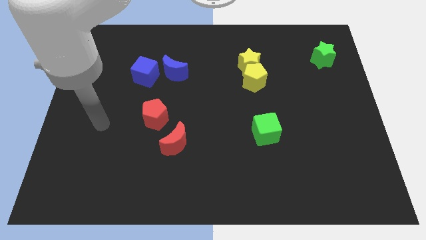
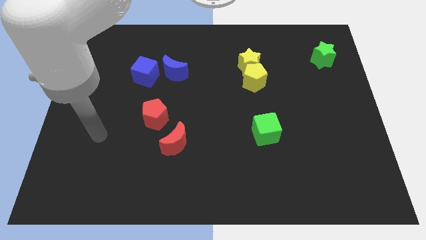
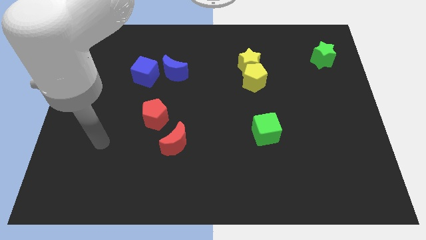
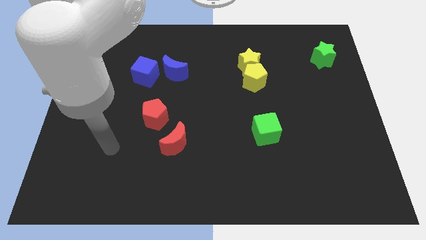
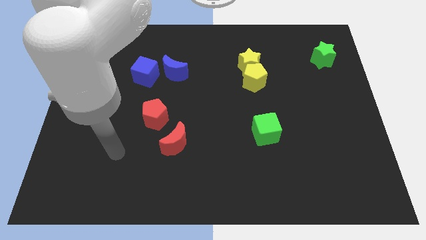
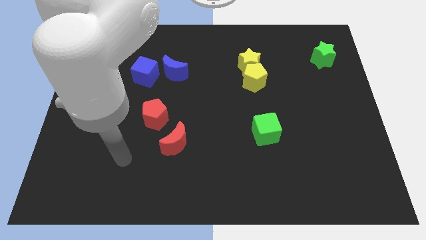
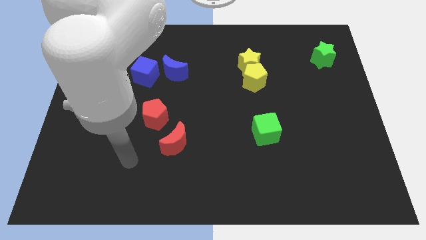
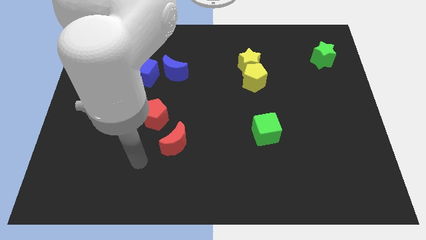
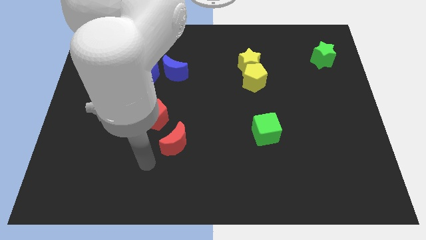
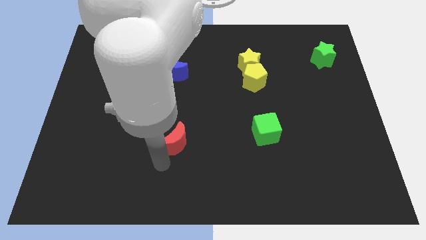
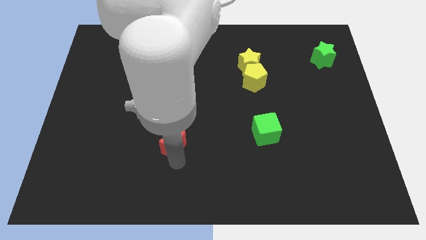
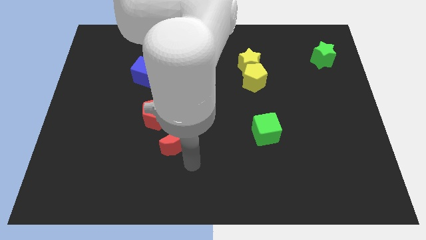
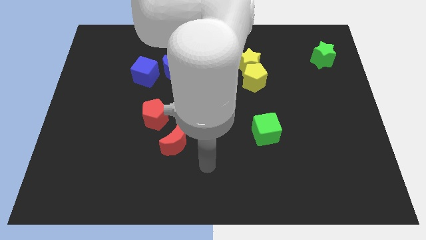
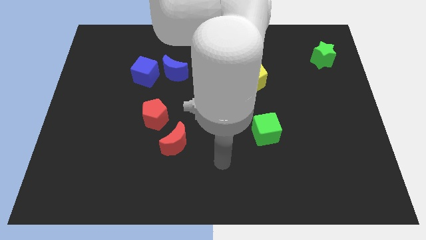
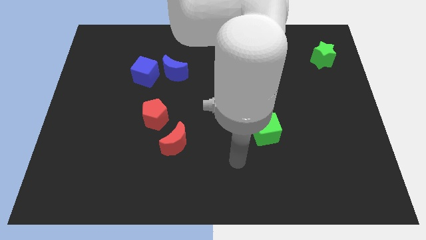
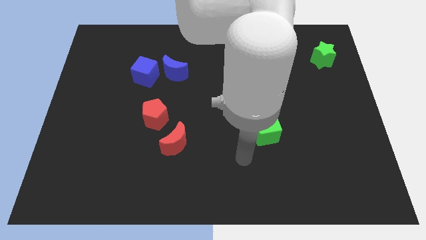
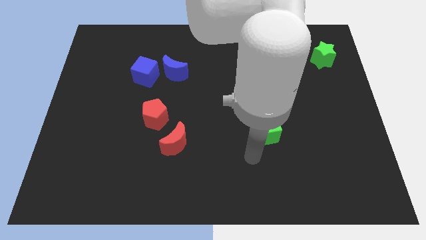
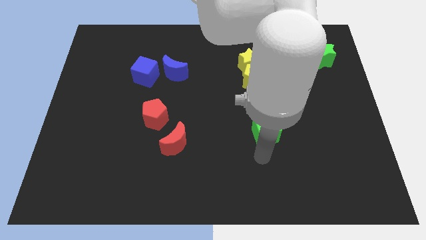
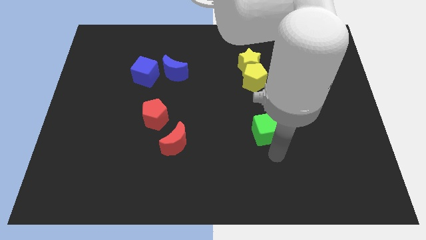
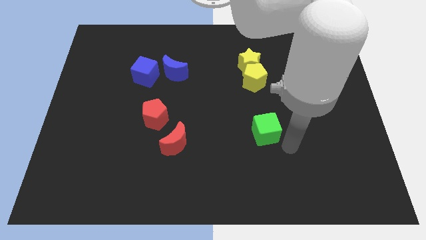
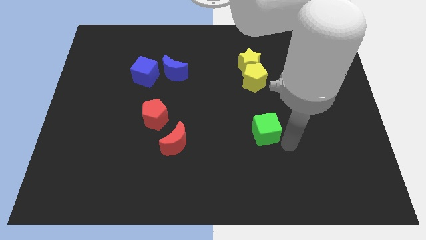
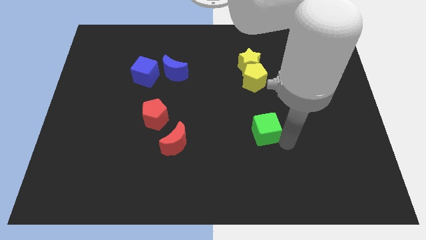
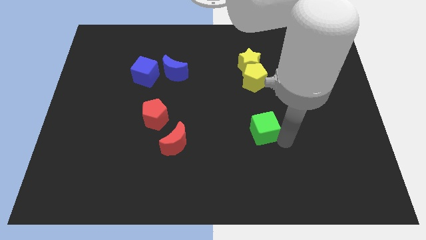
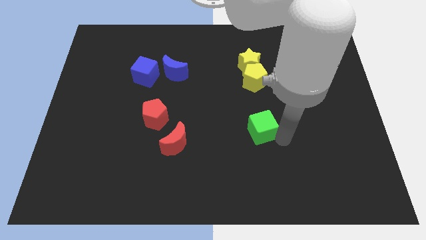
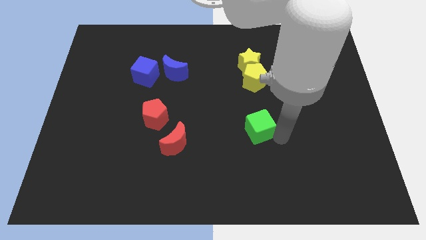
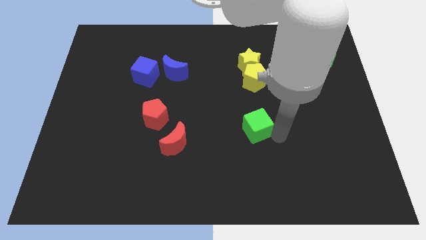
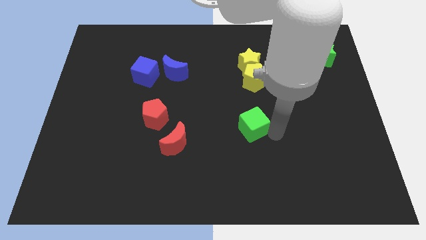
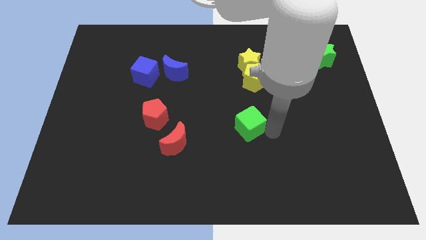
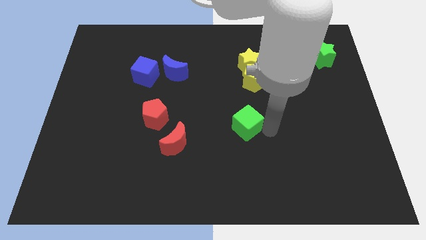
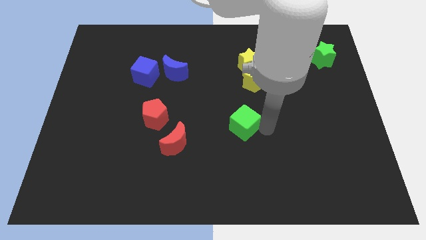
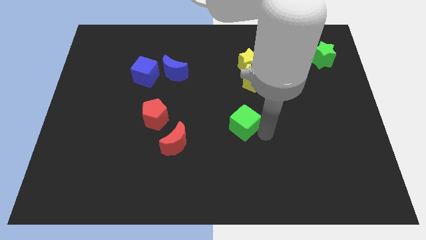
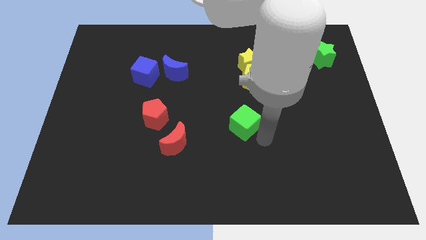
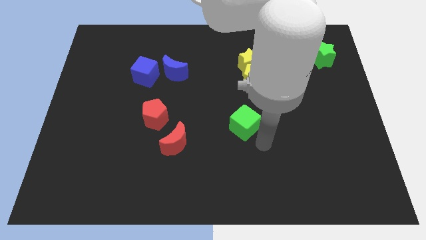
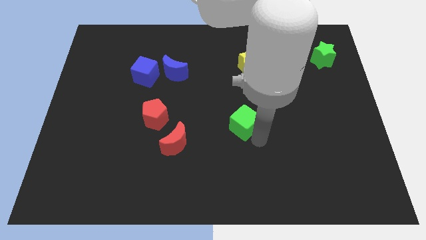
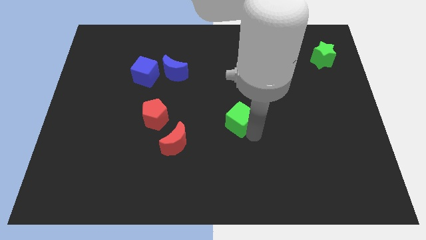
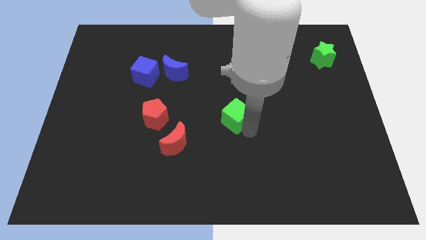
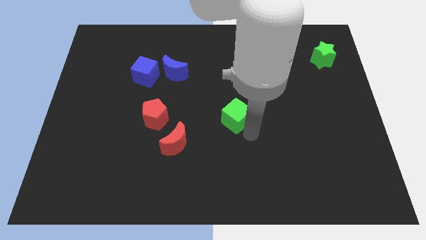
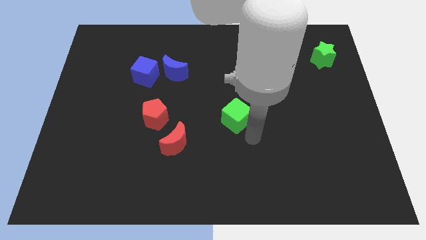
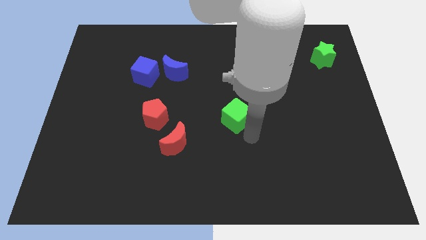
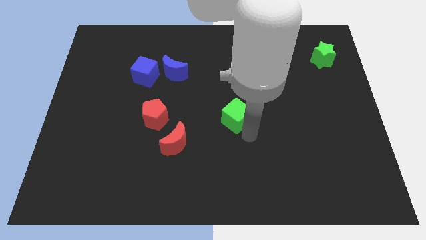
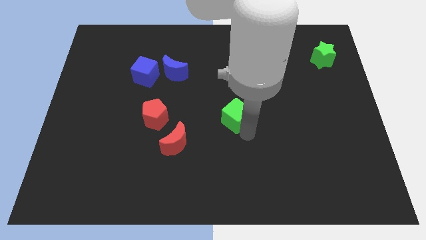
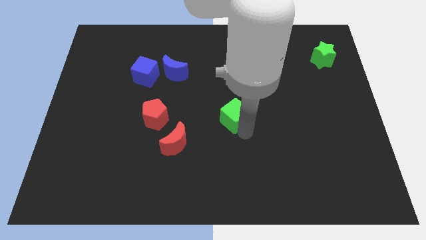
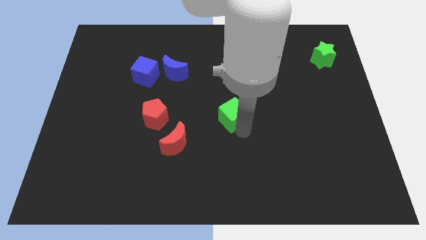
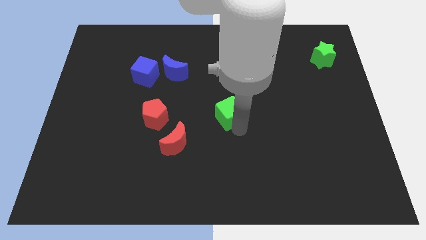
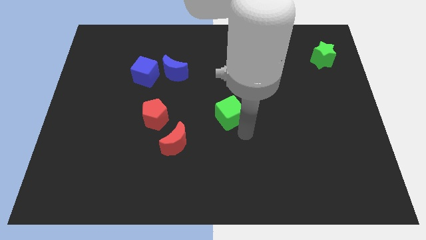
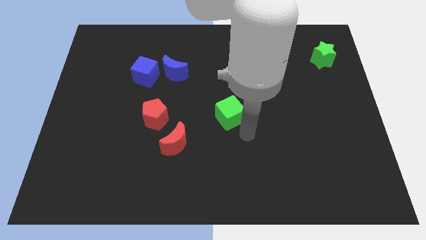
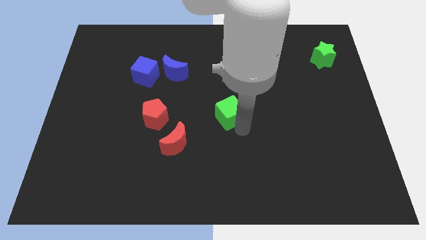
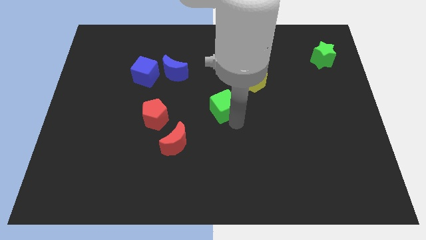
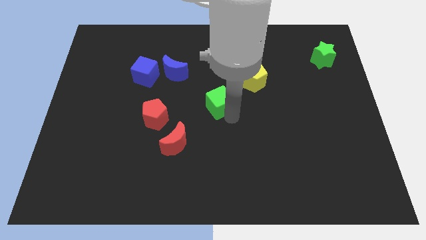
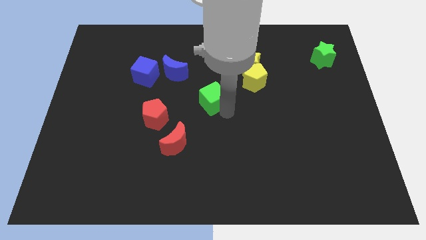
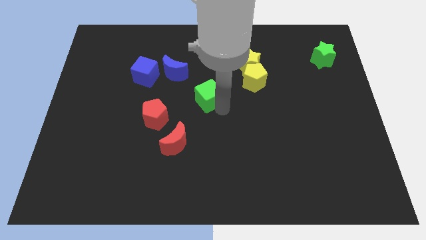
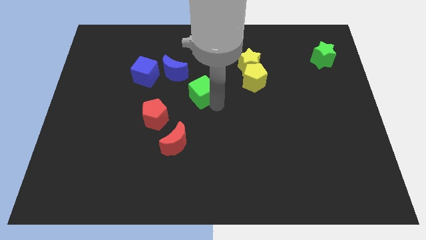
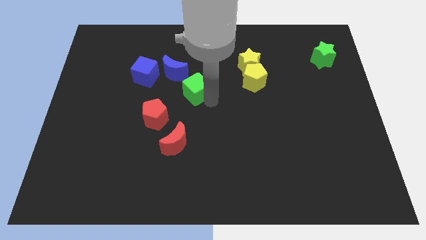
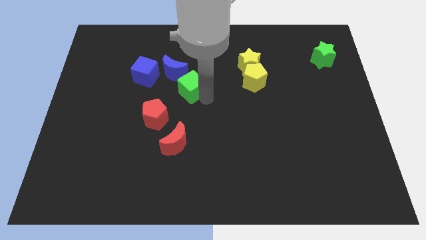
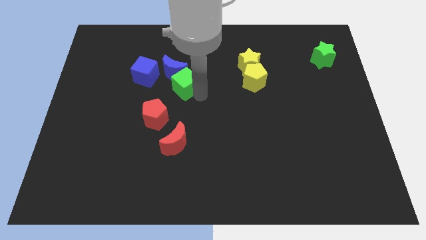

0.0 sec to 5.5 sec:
move the green cube close to the blue moon

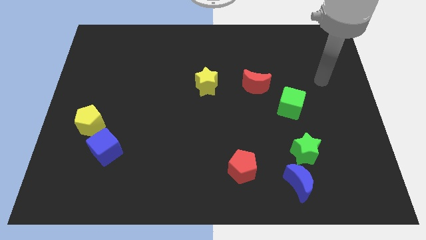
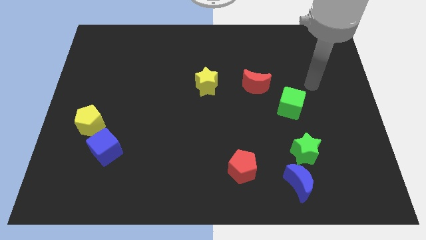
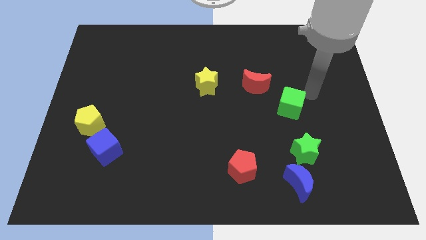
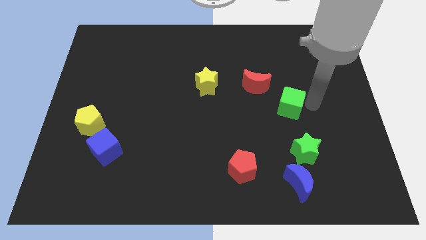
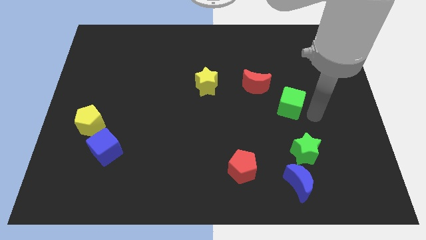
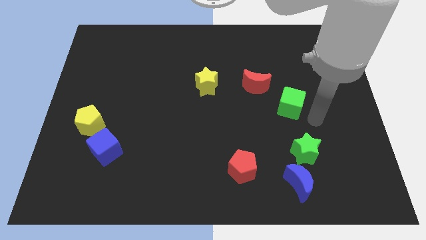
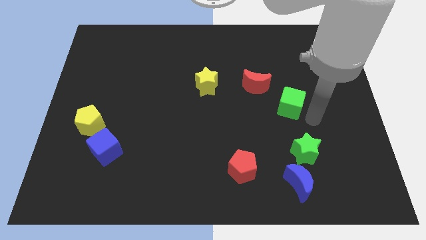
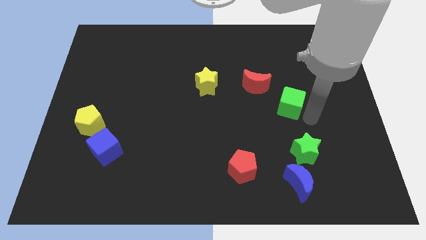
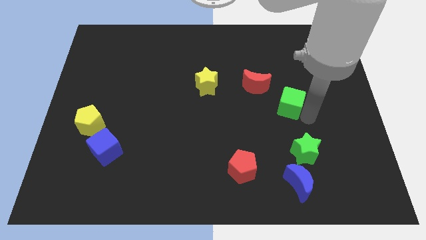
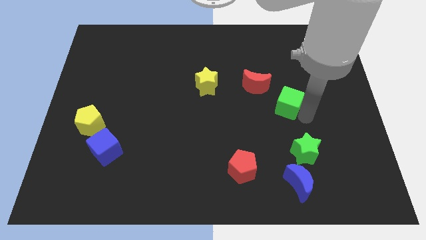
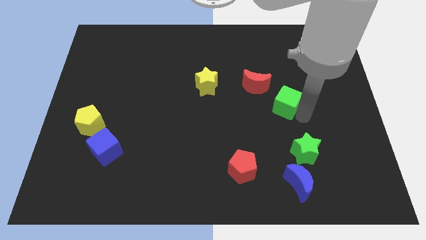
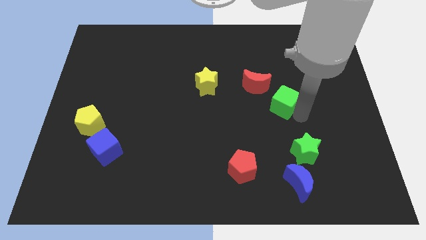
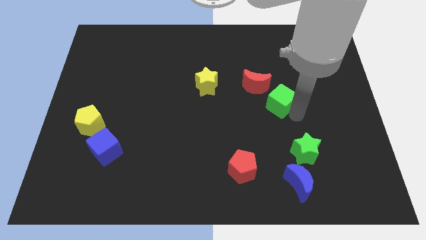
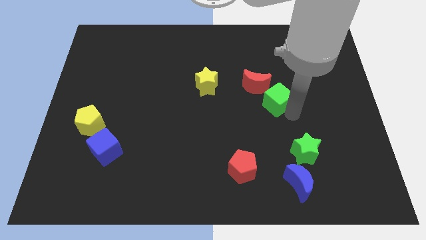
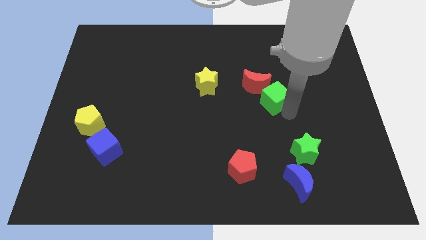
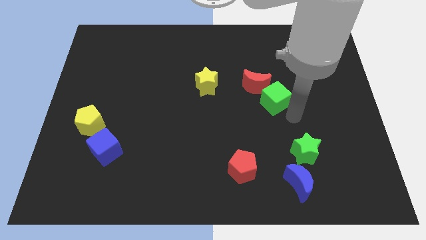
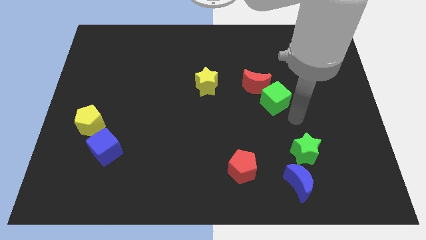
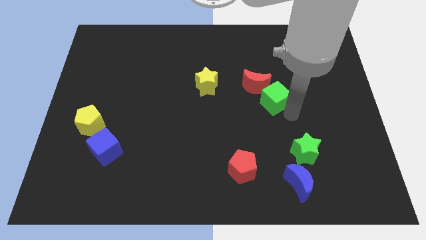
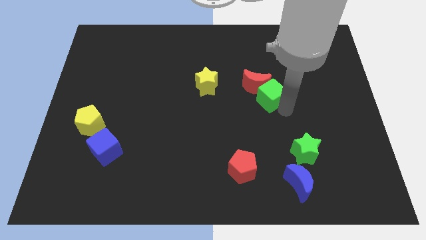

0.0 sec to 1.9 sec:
slide the green cube next to the red moon
